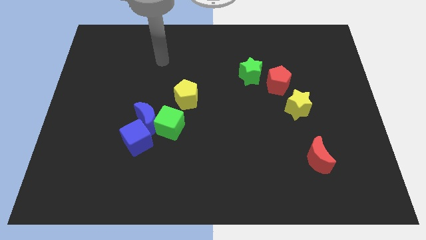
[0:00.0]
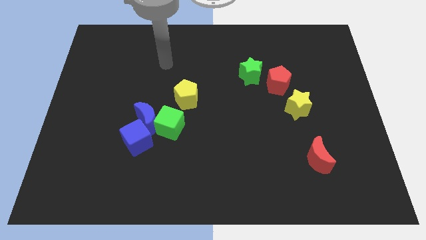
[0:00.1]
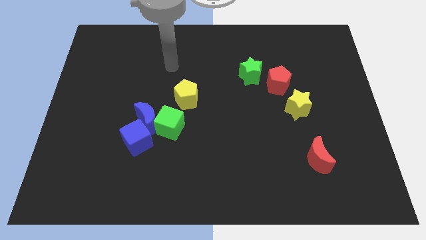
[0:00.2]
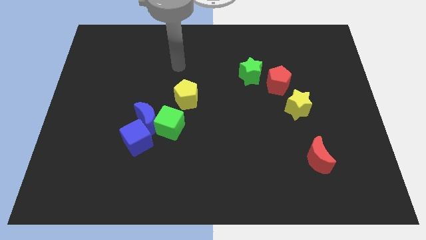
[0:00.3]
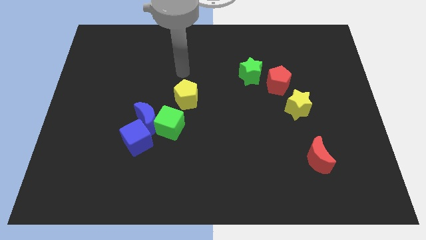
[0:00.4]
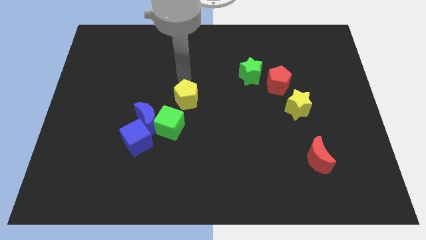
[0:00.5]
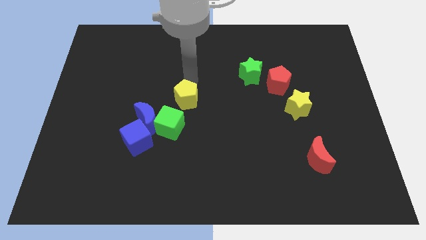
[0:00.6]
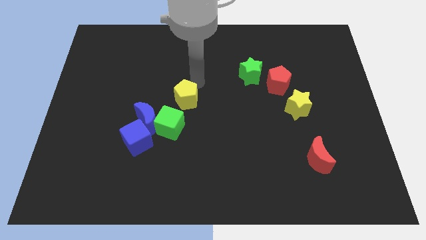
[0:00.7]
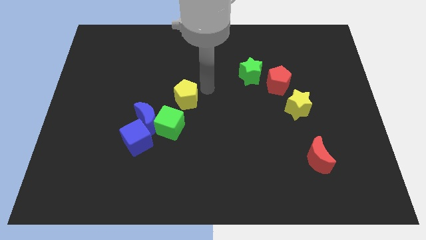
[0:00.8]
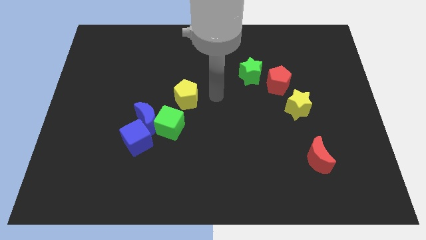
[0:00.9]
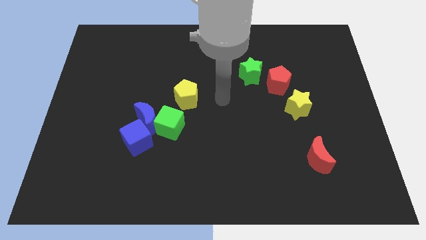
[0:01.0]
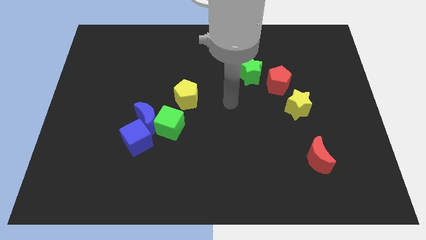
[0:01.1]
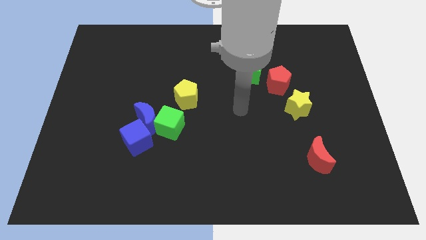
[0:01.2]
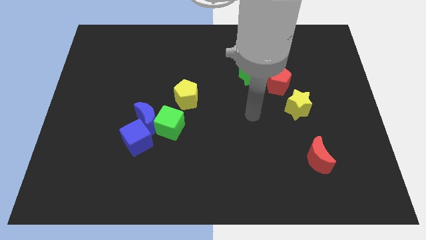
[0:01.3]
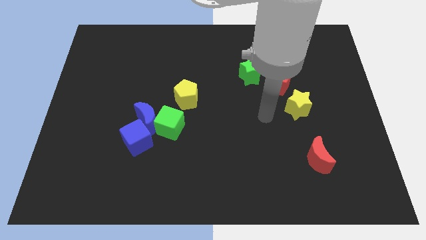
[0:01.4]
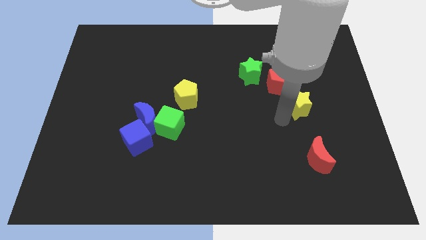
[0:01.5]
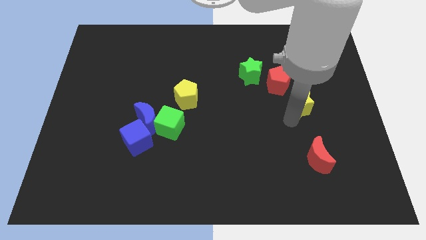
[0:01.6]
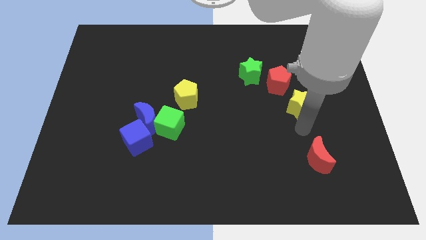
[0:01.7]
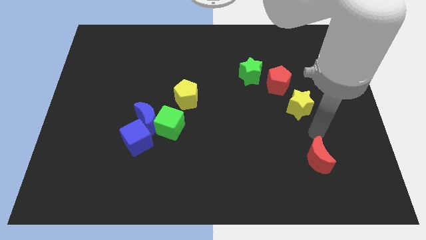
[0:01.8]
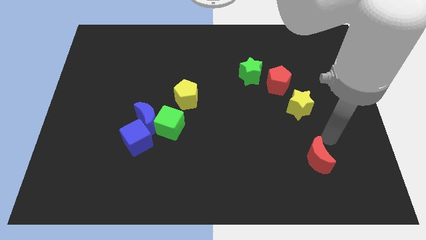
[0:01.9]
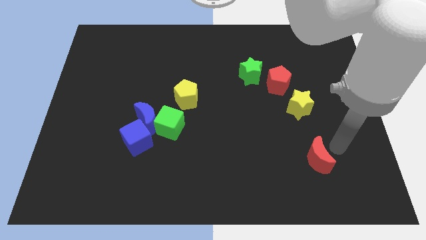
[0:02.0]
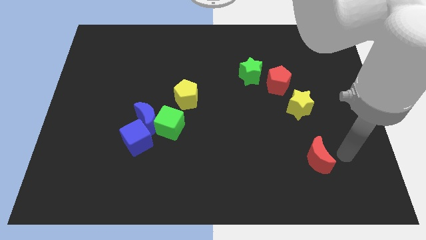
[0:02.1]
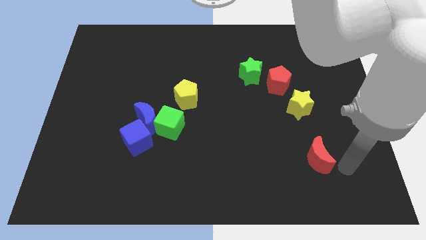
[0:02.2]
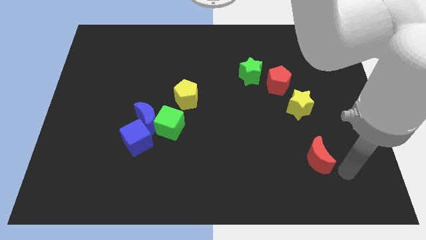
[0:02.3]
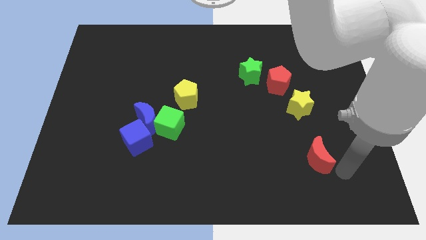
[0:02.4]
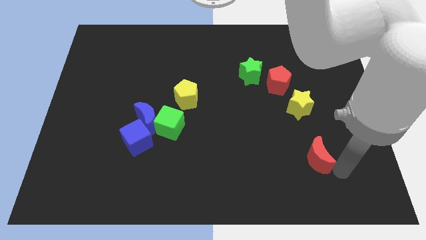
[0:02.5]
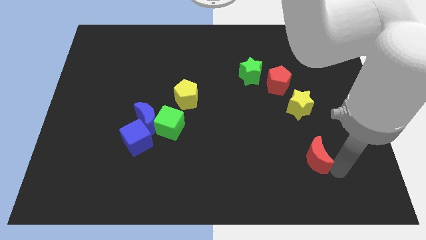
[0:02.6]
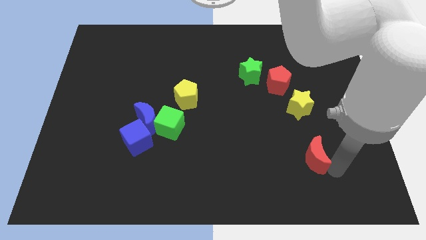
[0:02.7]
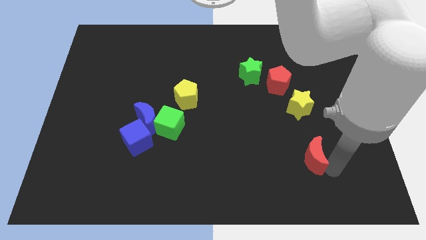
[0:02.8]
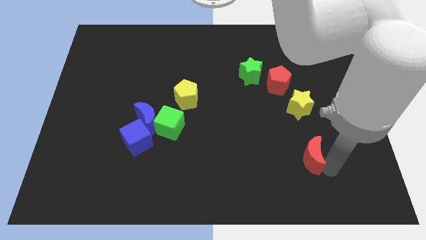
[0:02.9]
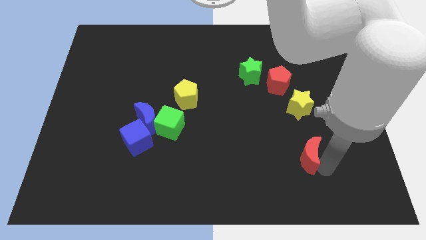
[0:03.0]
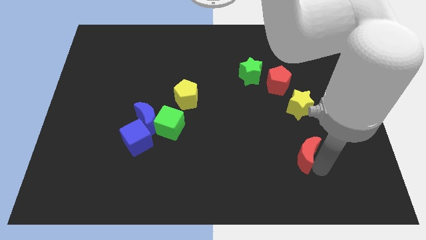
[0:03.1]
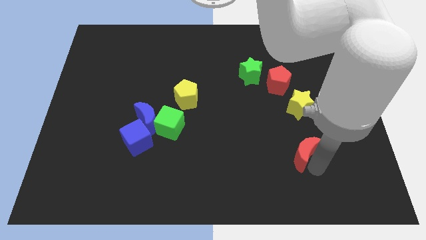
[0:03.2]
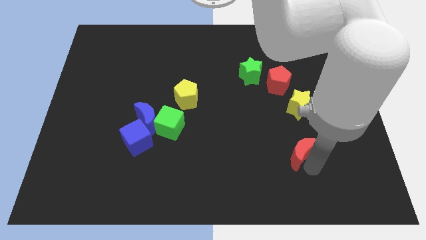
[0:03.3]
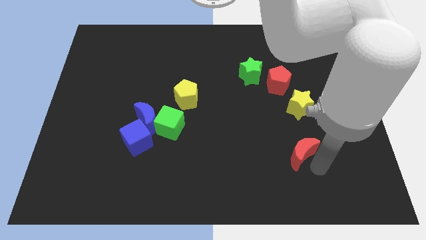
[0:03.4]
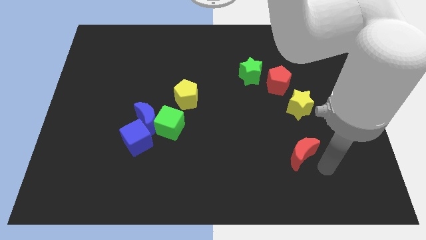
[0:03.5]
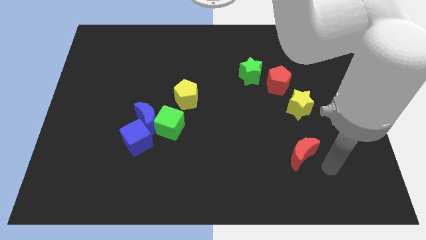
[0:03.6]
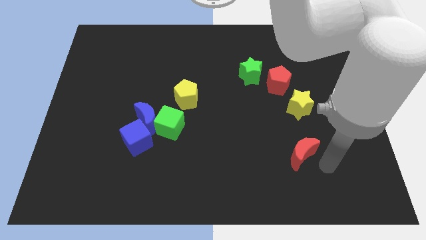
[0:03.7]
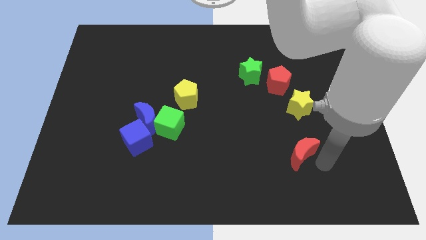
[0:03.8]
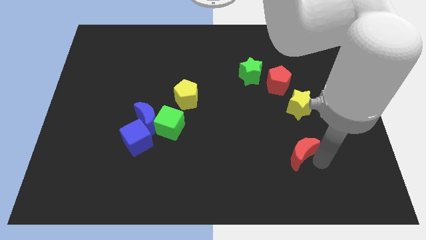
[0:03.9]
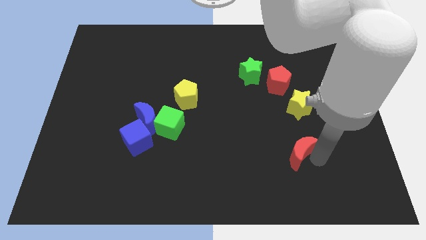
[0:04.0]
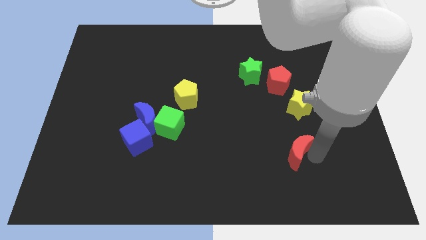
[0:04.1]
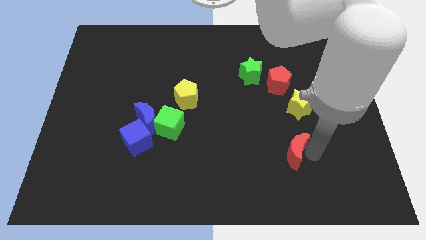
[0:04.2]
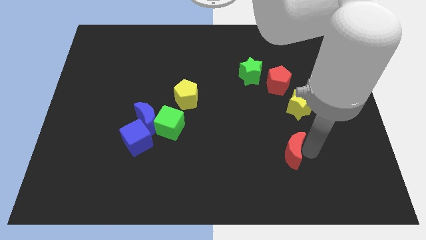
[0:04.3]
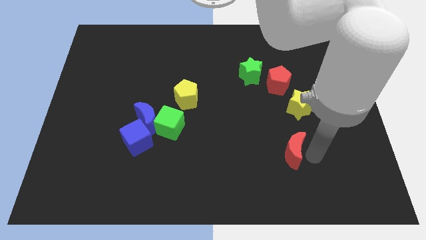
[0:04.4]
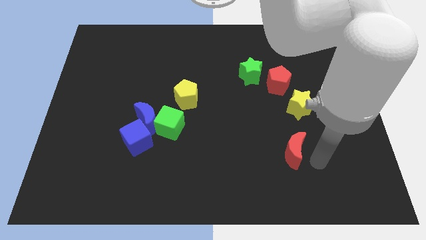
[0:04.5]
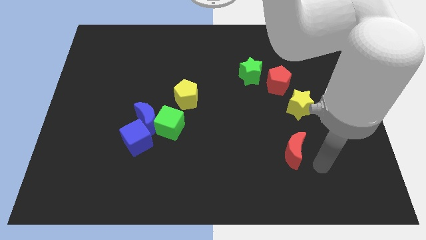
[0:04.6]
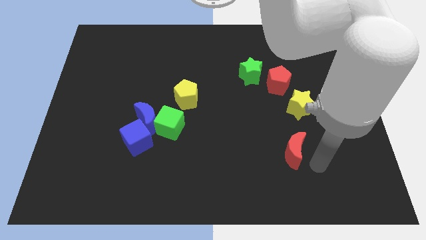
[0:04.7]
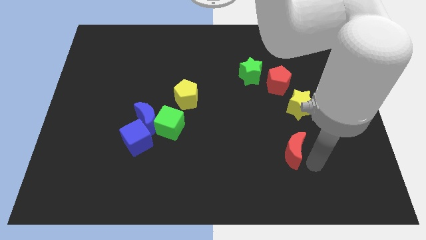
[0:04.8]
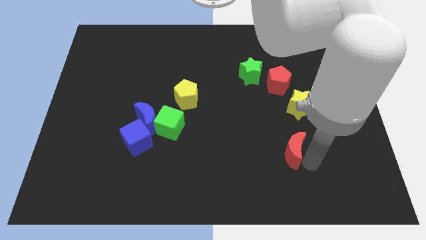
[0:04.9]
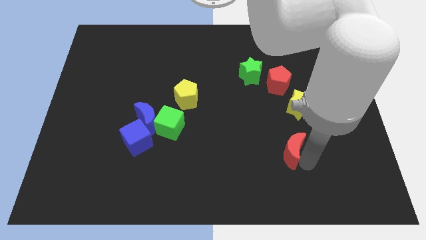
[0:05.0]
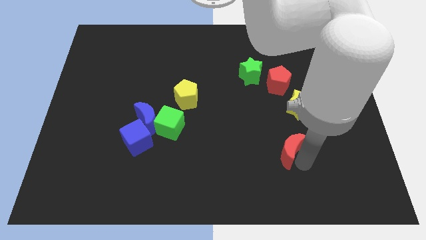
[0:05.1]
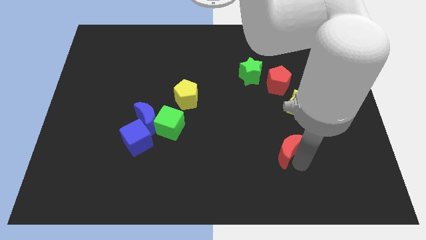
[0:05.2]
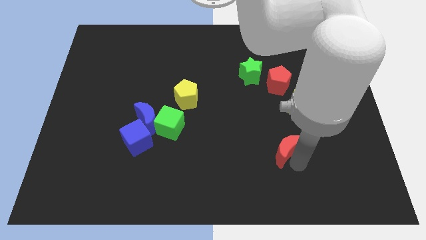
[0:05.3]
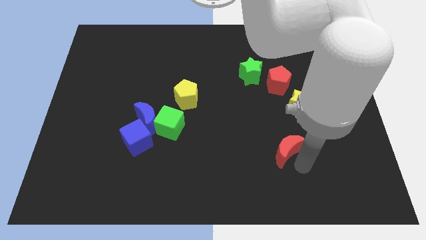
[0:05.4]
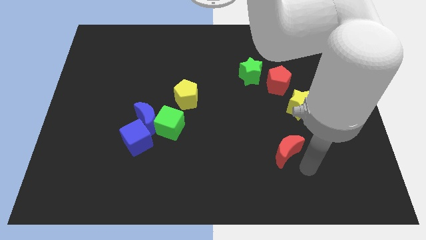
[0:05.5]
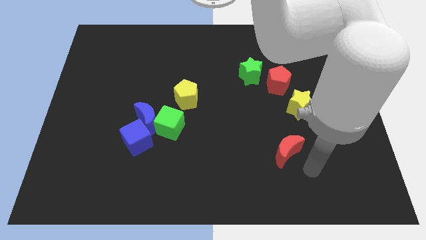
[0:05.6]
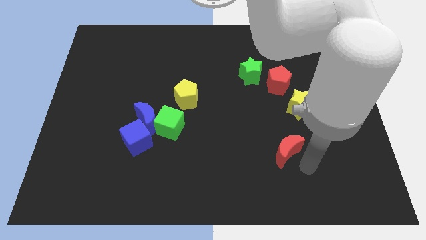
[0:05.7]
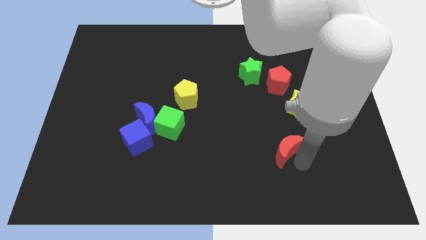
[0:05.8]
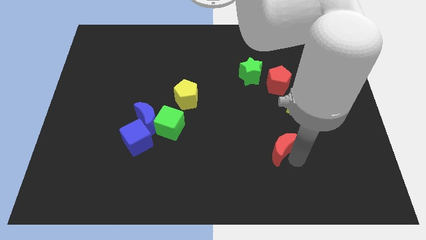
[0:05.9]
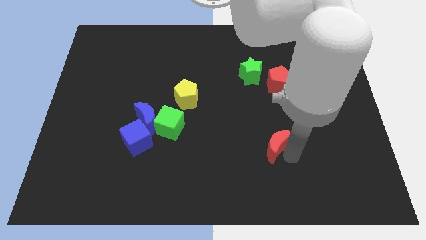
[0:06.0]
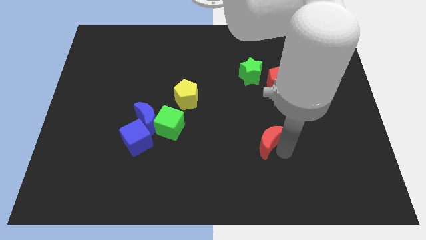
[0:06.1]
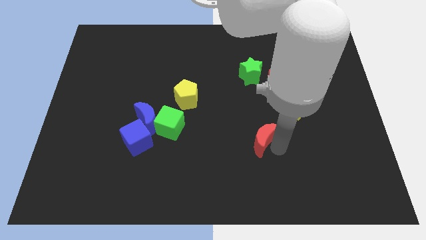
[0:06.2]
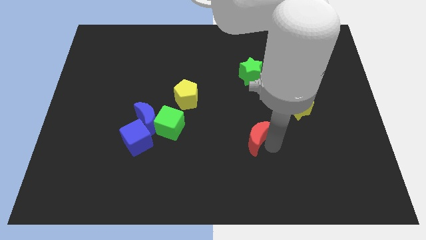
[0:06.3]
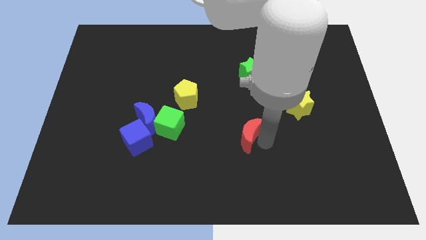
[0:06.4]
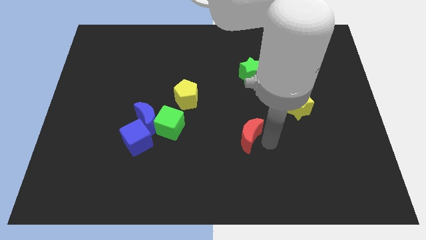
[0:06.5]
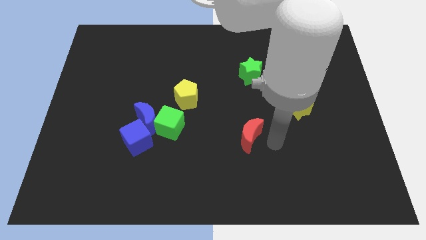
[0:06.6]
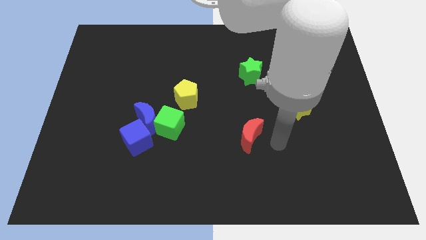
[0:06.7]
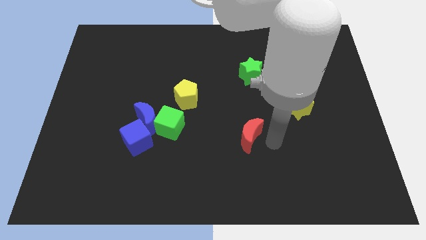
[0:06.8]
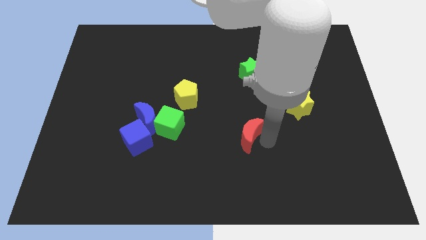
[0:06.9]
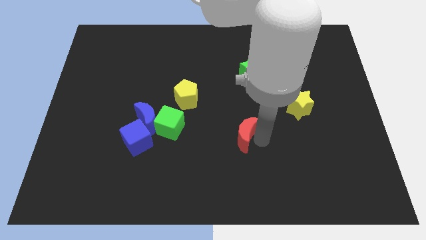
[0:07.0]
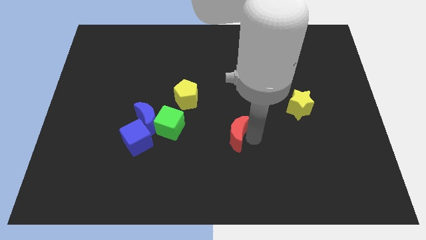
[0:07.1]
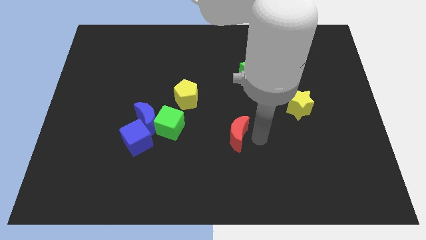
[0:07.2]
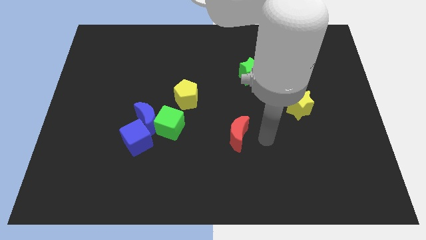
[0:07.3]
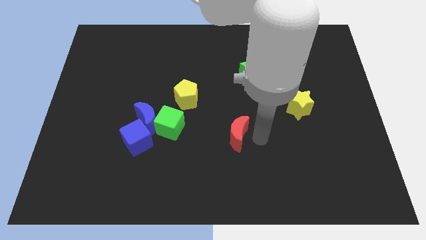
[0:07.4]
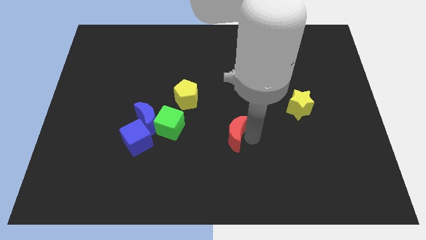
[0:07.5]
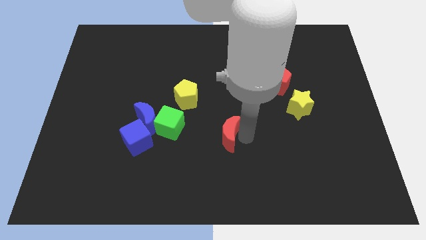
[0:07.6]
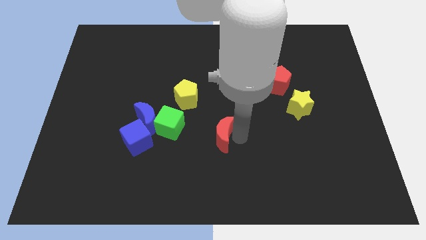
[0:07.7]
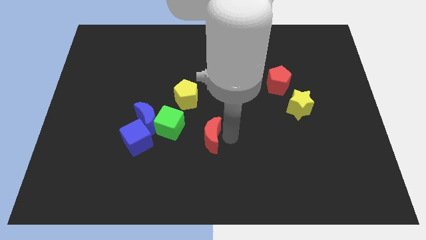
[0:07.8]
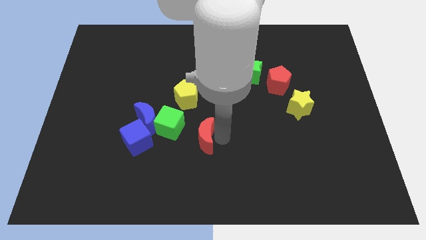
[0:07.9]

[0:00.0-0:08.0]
slide the red moon to the bottom side of the yellow pentagon
